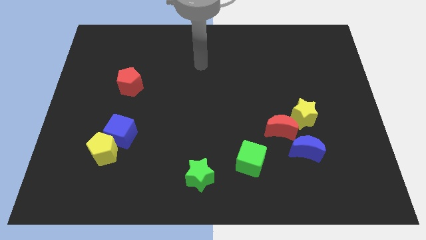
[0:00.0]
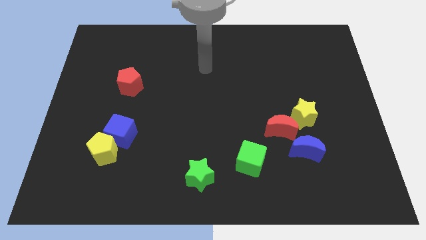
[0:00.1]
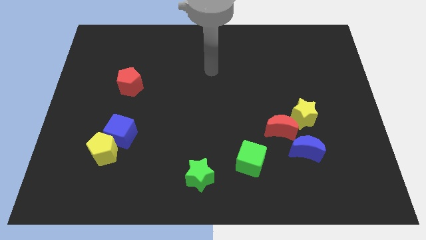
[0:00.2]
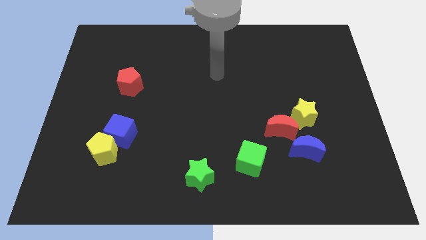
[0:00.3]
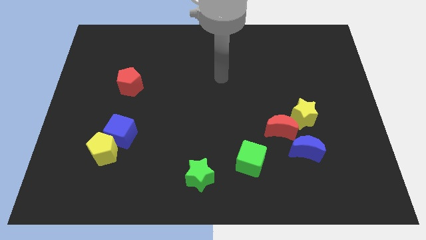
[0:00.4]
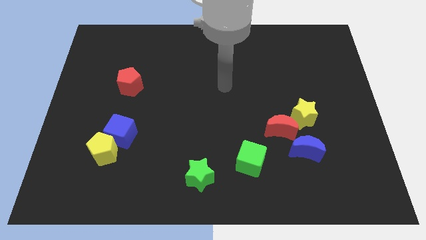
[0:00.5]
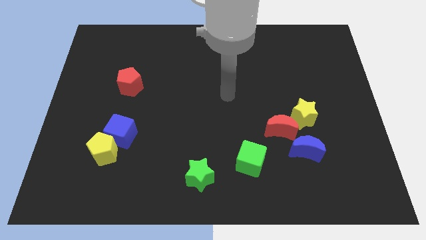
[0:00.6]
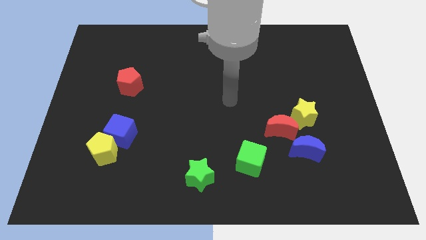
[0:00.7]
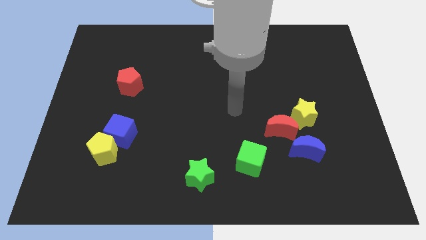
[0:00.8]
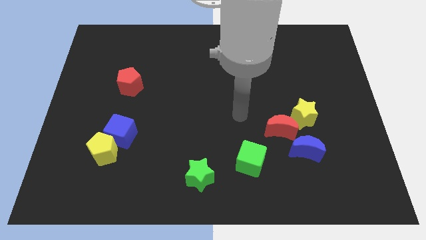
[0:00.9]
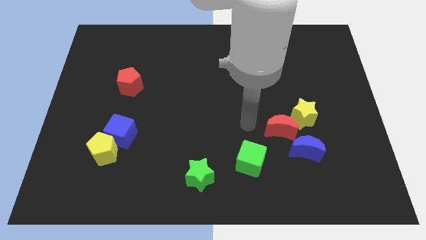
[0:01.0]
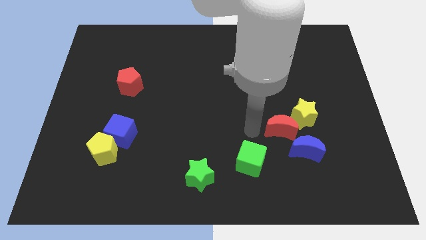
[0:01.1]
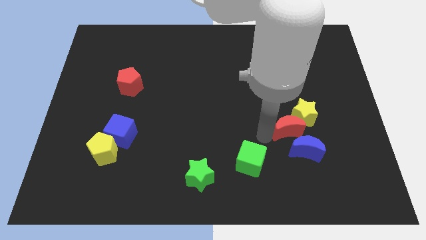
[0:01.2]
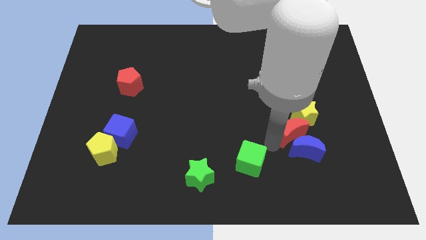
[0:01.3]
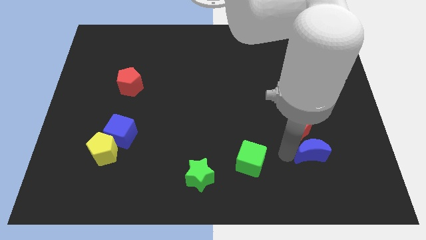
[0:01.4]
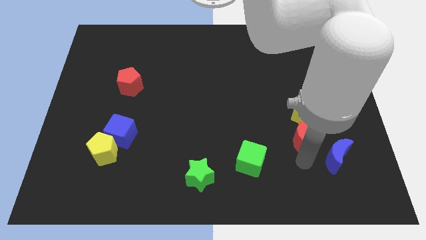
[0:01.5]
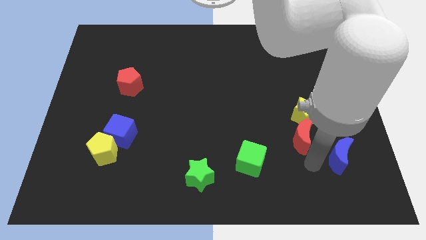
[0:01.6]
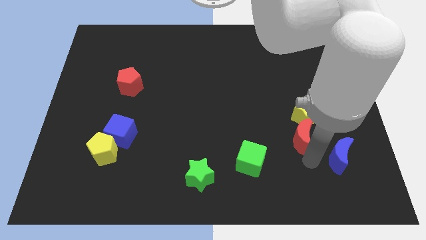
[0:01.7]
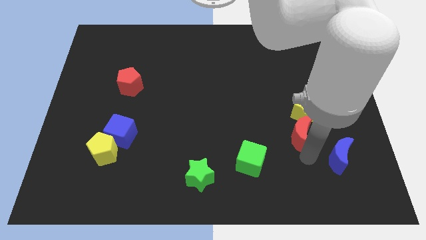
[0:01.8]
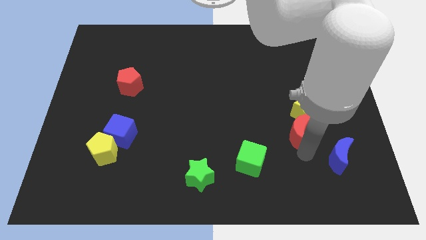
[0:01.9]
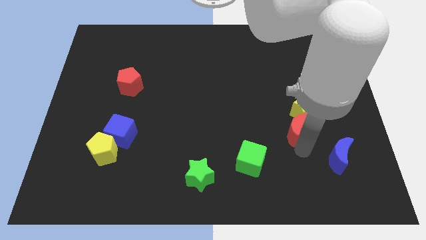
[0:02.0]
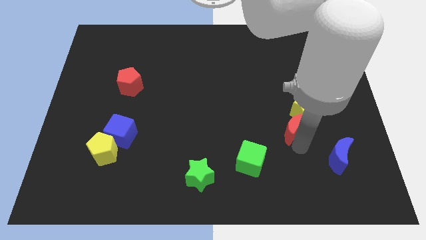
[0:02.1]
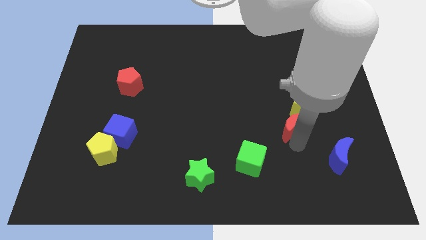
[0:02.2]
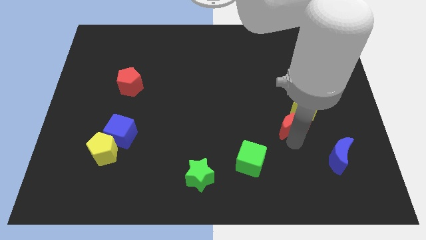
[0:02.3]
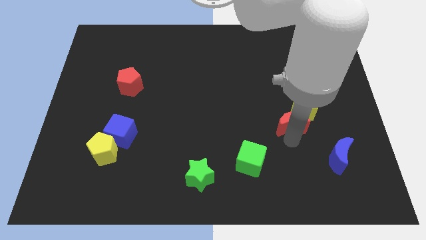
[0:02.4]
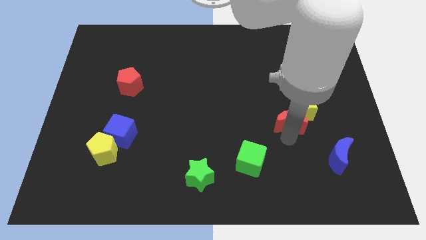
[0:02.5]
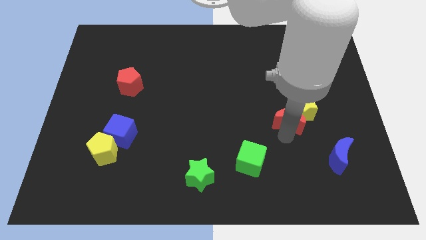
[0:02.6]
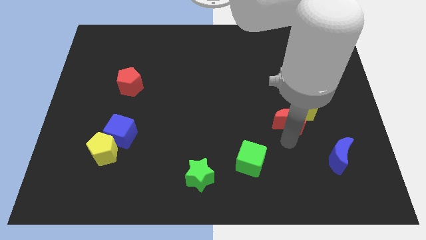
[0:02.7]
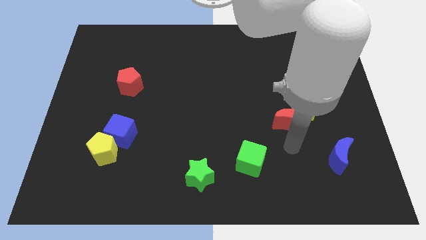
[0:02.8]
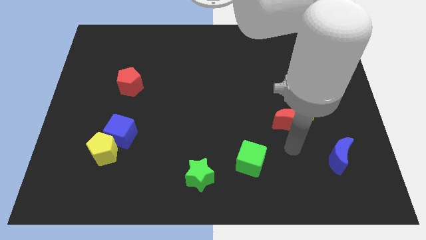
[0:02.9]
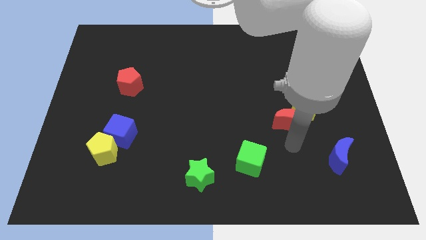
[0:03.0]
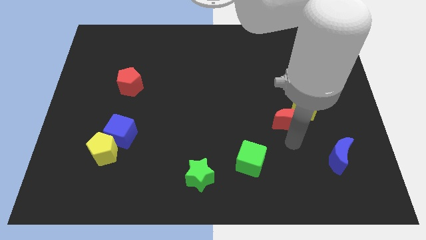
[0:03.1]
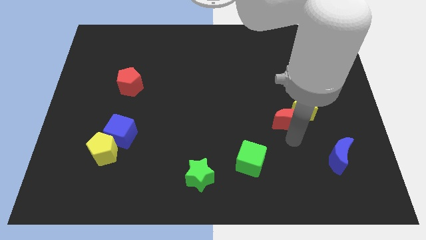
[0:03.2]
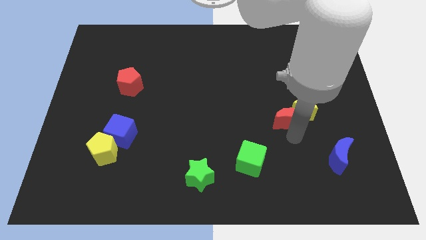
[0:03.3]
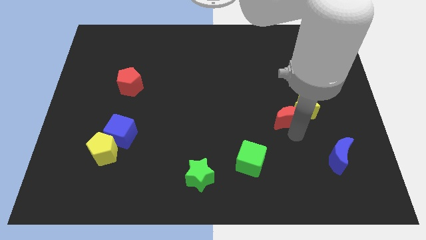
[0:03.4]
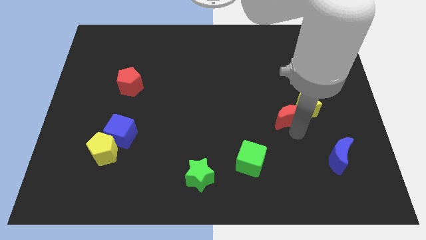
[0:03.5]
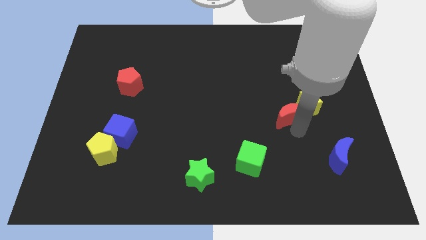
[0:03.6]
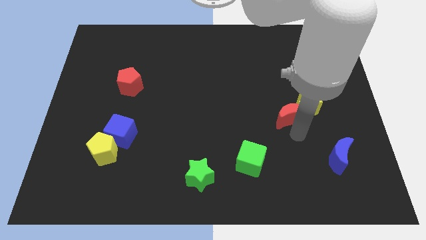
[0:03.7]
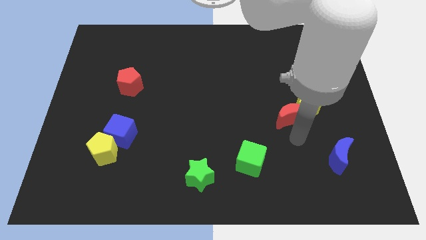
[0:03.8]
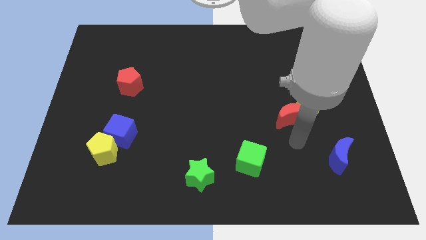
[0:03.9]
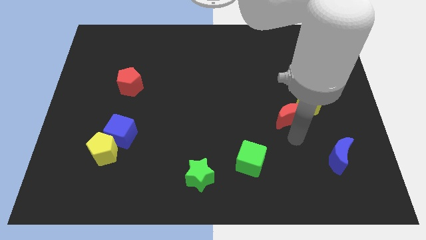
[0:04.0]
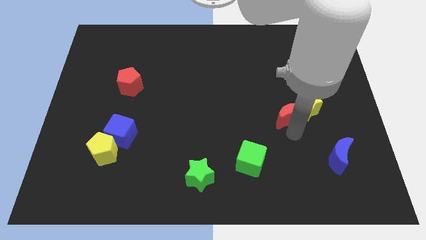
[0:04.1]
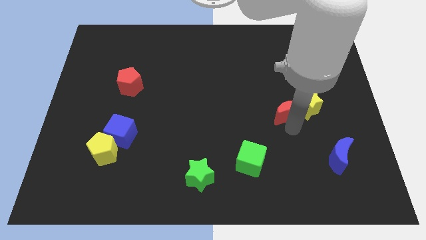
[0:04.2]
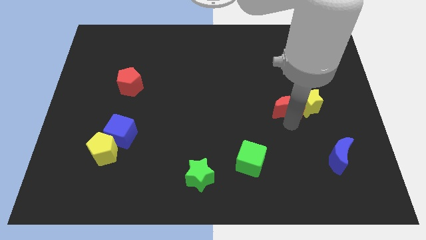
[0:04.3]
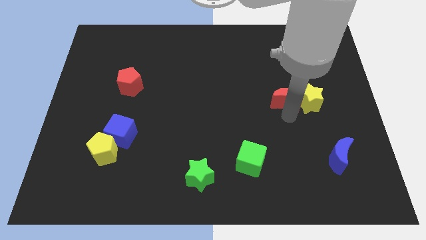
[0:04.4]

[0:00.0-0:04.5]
slightly slide the red moon up

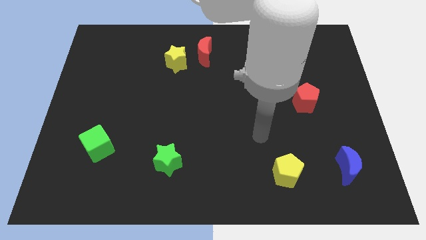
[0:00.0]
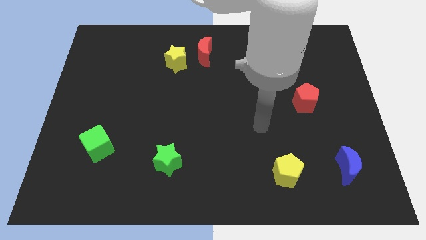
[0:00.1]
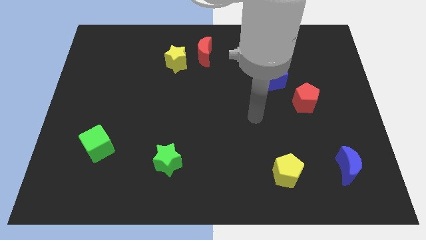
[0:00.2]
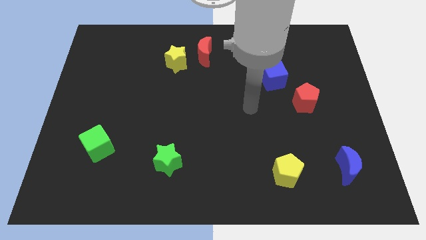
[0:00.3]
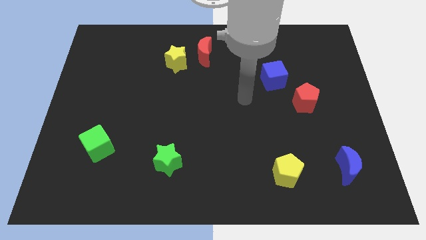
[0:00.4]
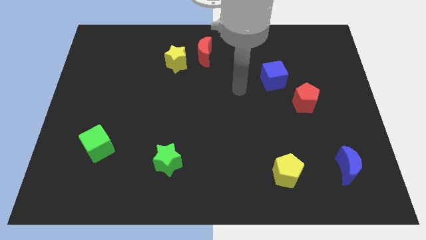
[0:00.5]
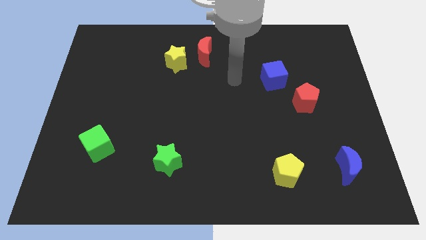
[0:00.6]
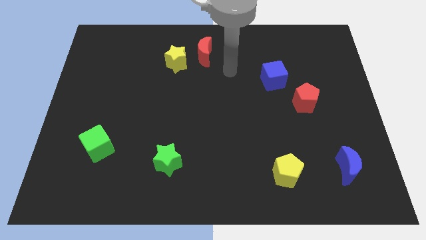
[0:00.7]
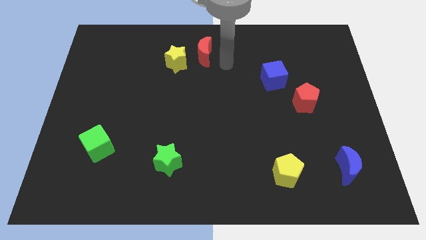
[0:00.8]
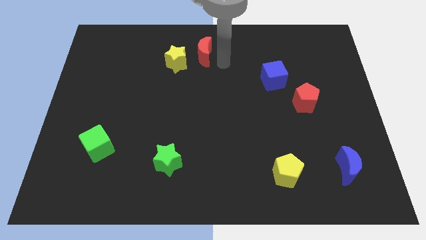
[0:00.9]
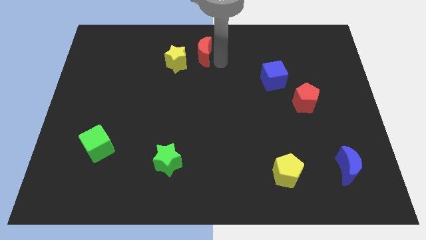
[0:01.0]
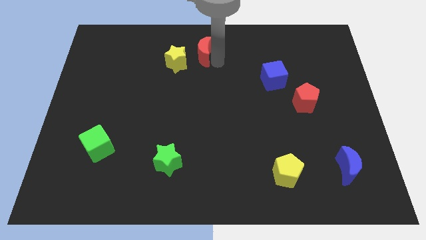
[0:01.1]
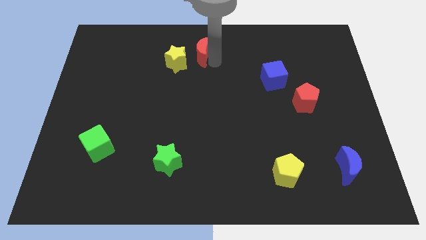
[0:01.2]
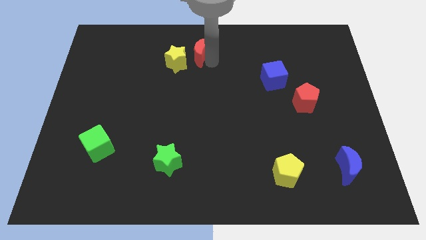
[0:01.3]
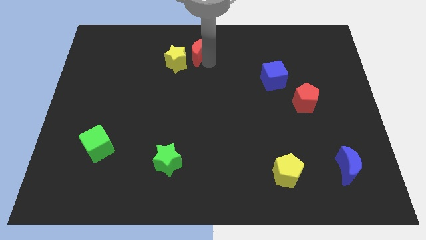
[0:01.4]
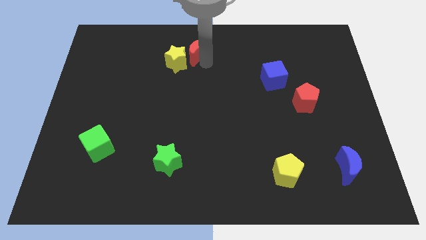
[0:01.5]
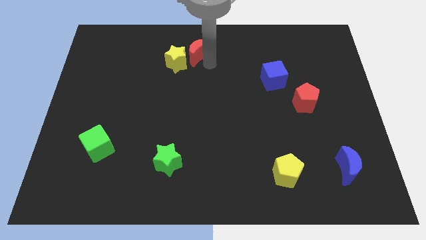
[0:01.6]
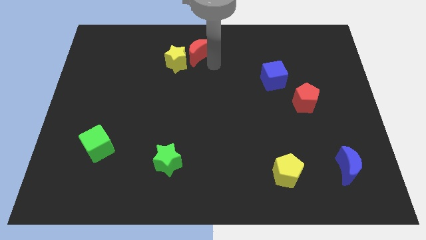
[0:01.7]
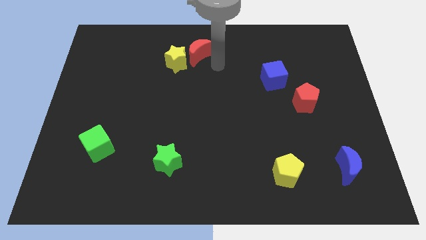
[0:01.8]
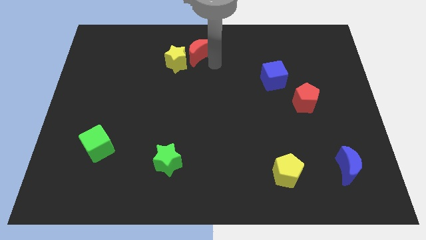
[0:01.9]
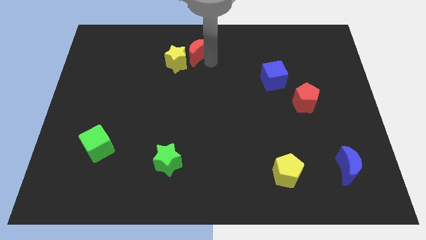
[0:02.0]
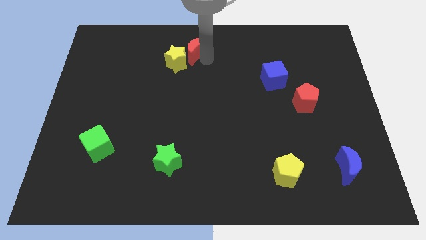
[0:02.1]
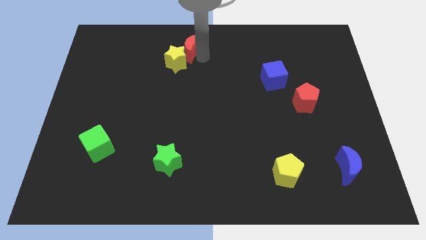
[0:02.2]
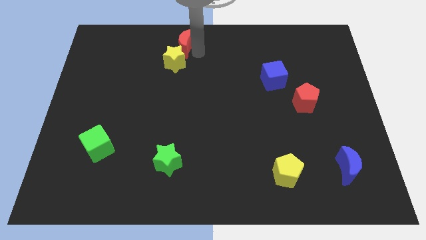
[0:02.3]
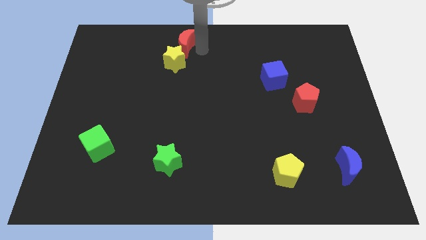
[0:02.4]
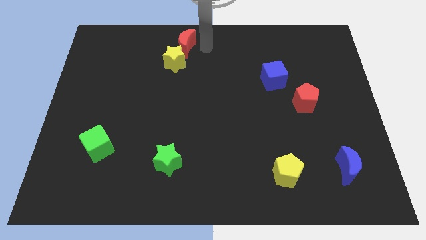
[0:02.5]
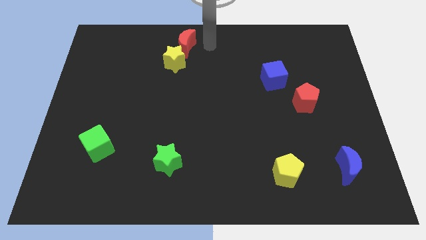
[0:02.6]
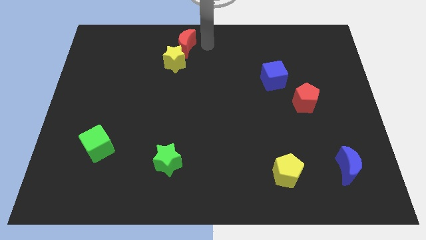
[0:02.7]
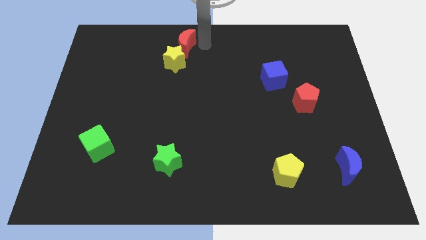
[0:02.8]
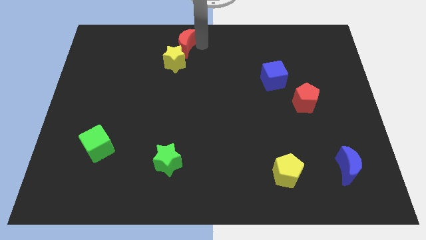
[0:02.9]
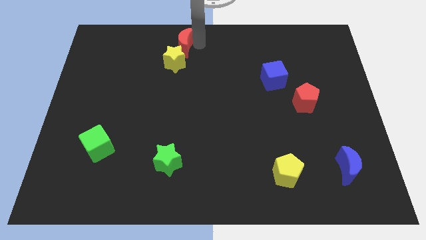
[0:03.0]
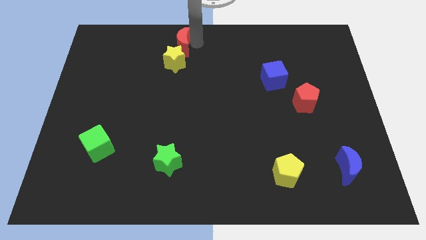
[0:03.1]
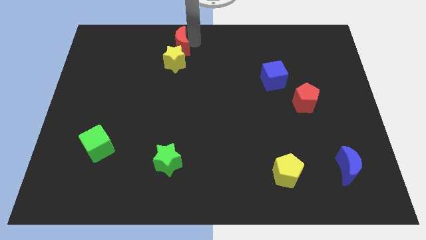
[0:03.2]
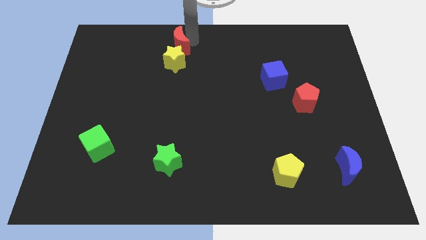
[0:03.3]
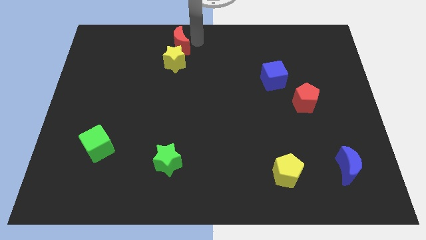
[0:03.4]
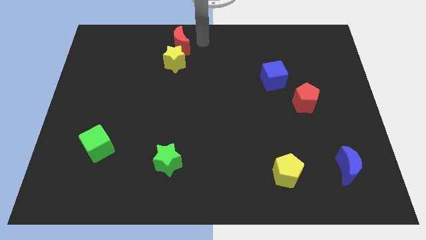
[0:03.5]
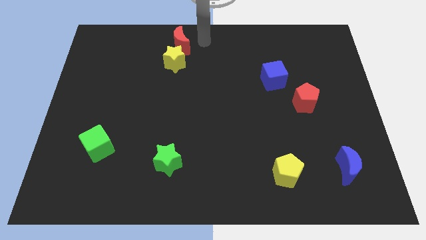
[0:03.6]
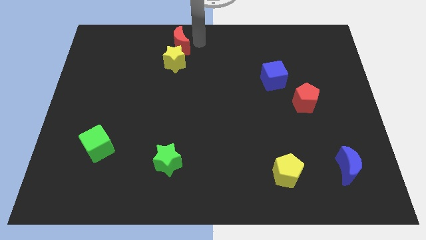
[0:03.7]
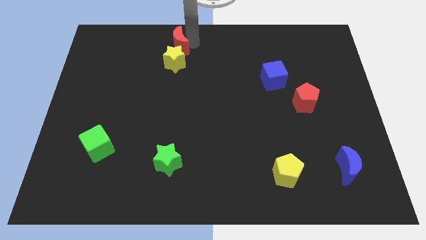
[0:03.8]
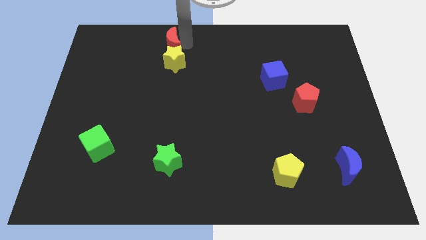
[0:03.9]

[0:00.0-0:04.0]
slide the red moon slightly left
